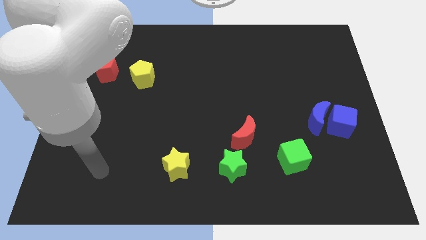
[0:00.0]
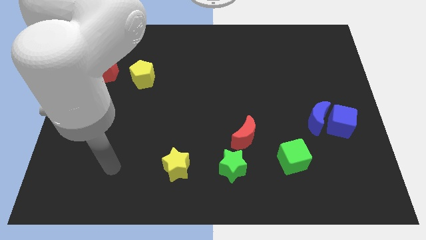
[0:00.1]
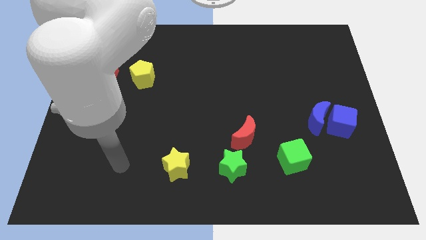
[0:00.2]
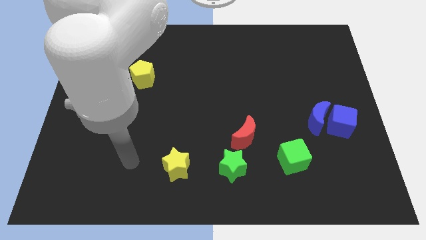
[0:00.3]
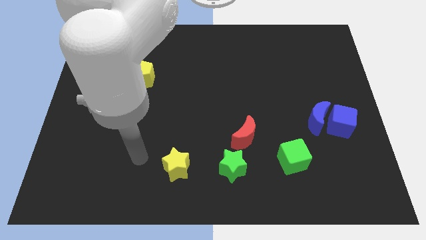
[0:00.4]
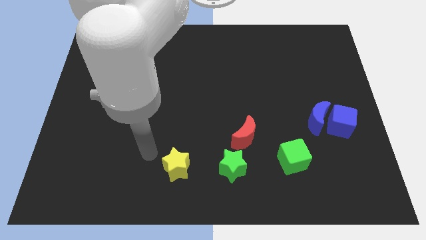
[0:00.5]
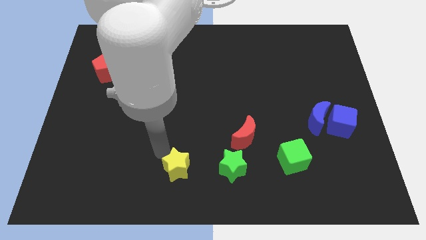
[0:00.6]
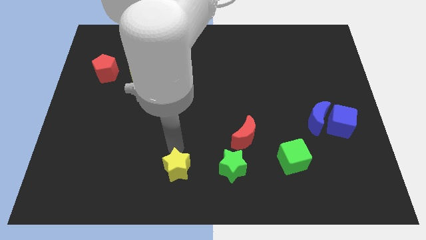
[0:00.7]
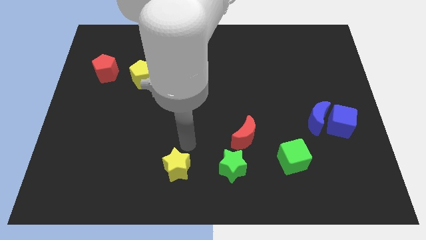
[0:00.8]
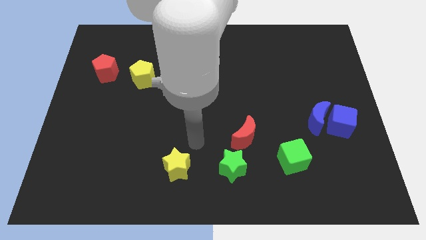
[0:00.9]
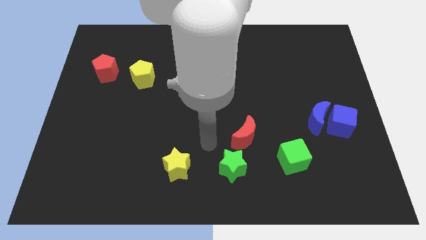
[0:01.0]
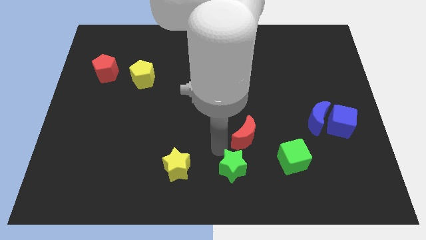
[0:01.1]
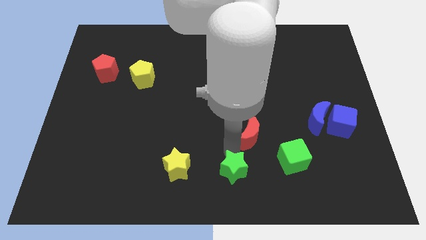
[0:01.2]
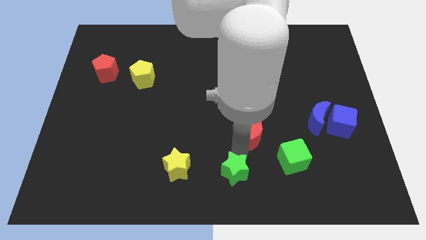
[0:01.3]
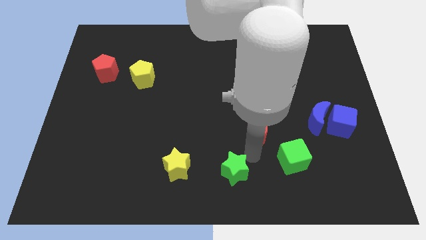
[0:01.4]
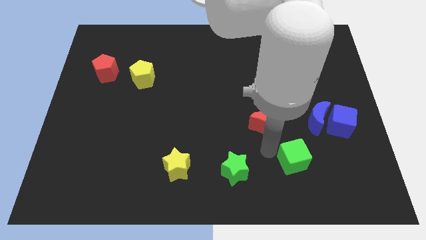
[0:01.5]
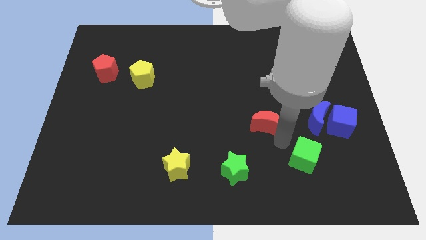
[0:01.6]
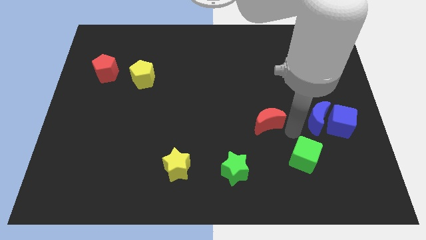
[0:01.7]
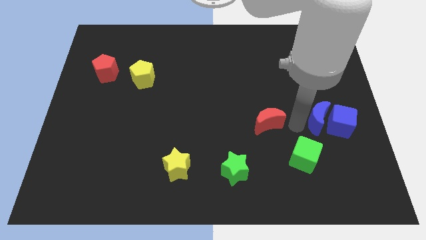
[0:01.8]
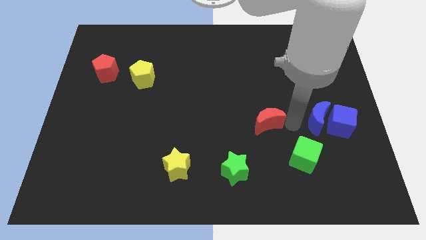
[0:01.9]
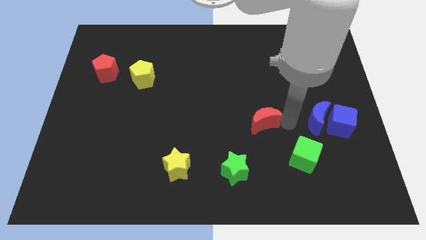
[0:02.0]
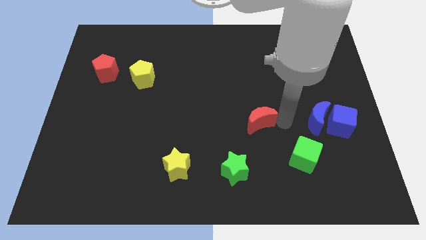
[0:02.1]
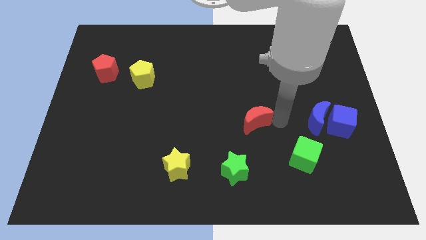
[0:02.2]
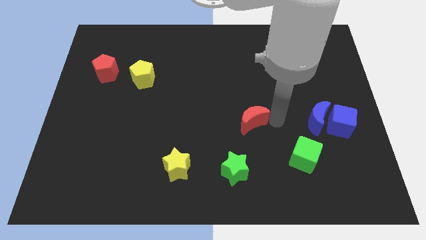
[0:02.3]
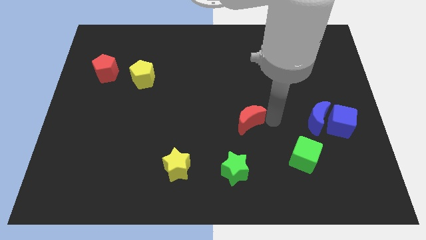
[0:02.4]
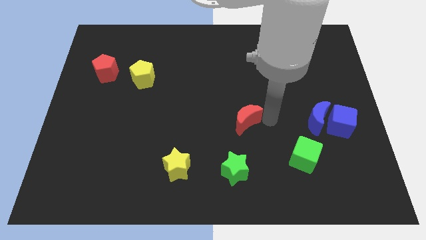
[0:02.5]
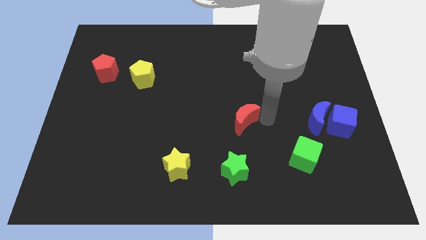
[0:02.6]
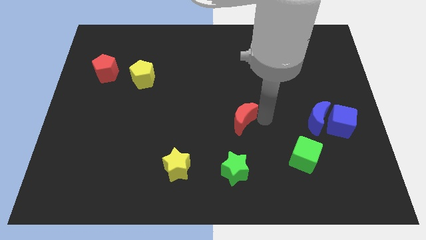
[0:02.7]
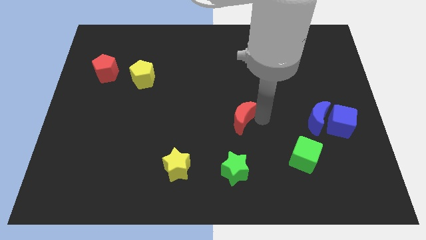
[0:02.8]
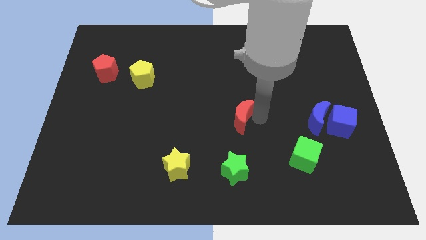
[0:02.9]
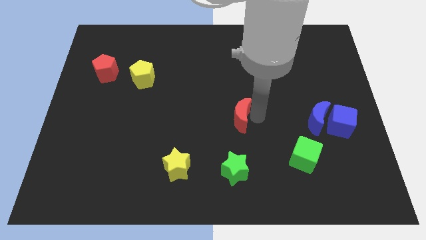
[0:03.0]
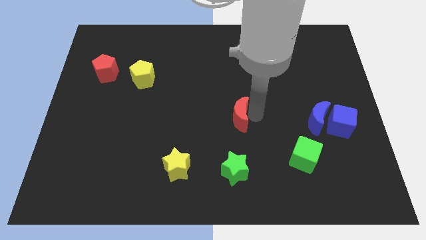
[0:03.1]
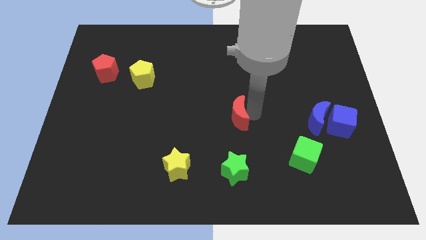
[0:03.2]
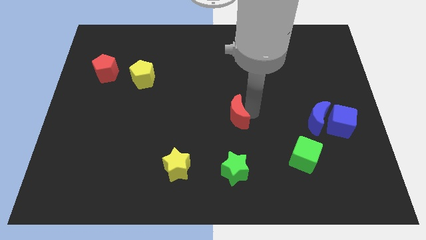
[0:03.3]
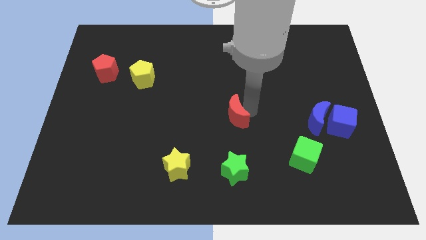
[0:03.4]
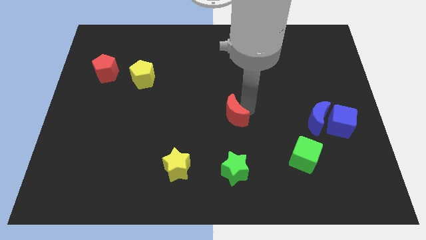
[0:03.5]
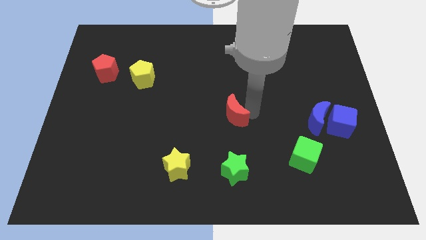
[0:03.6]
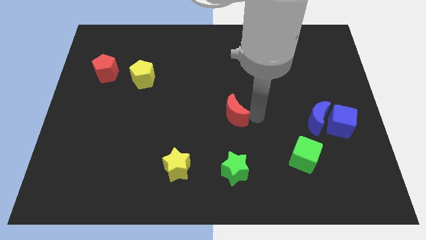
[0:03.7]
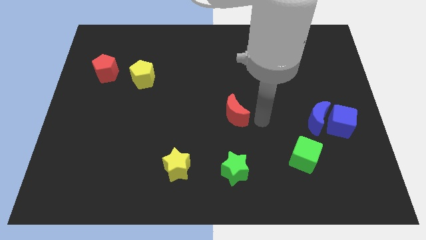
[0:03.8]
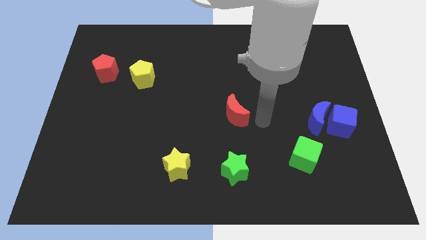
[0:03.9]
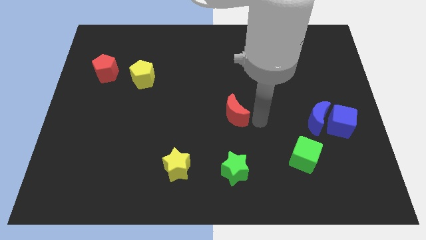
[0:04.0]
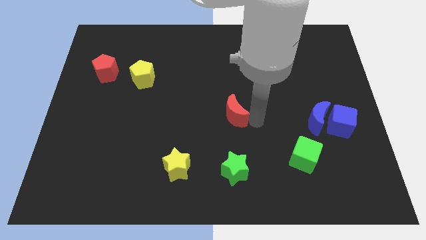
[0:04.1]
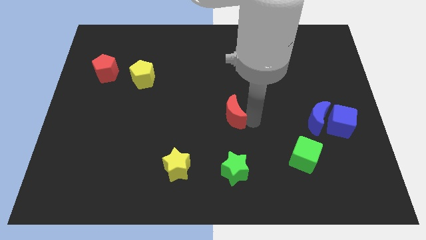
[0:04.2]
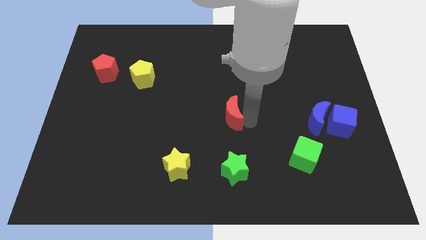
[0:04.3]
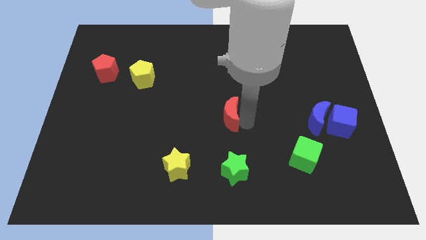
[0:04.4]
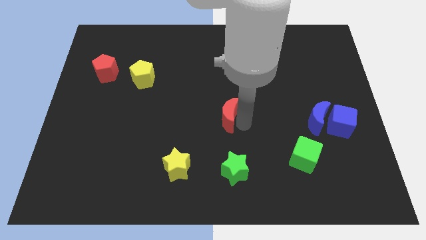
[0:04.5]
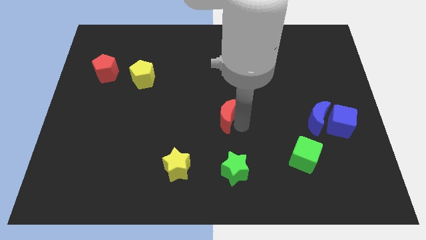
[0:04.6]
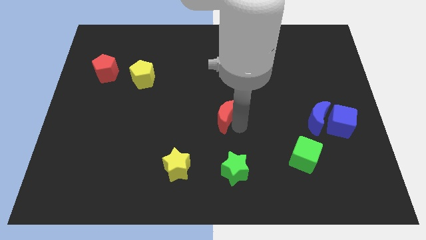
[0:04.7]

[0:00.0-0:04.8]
slide the red moon somewhat diagonally up and left

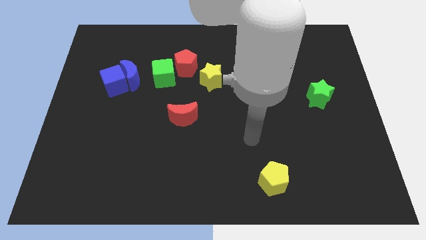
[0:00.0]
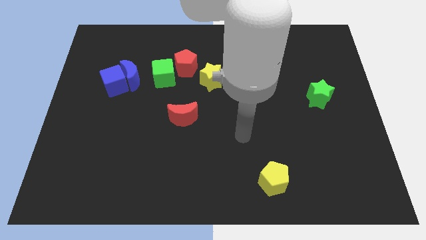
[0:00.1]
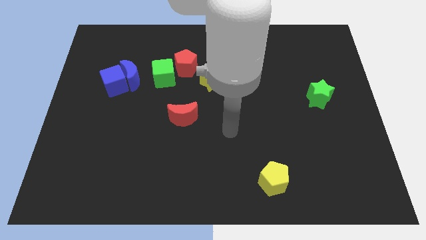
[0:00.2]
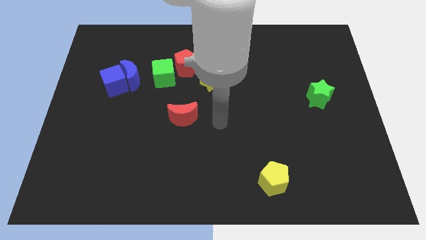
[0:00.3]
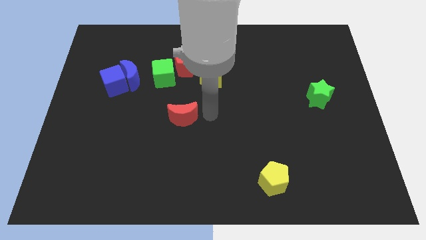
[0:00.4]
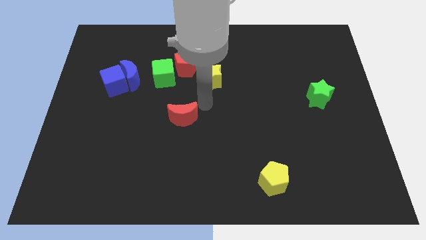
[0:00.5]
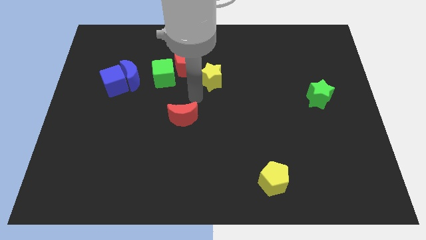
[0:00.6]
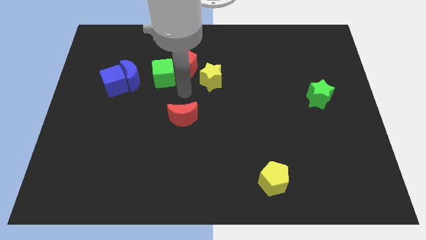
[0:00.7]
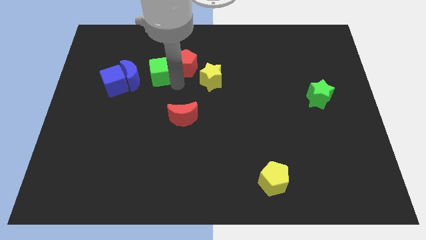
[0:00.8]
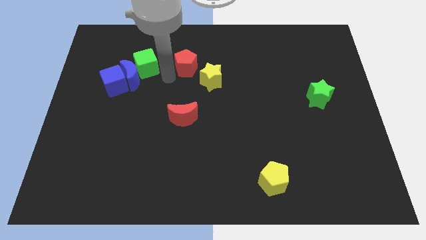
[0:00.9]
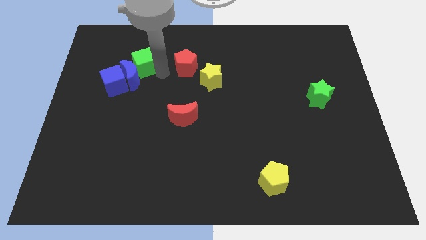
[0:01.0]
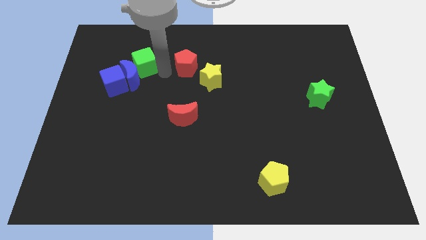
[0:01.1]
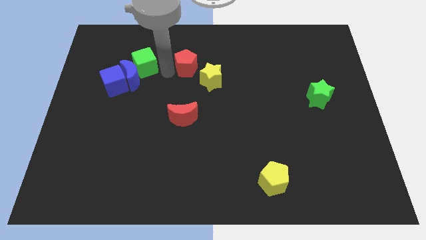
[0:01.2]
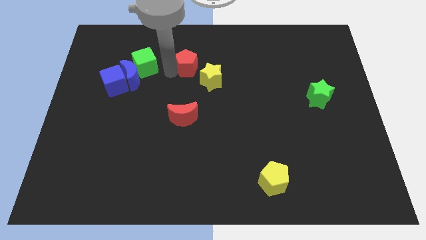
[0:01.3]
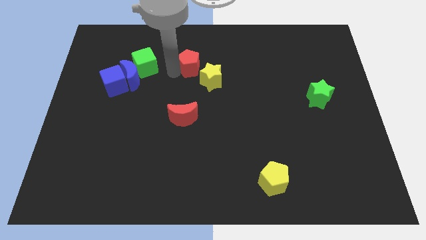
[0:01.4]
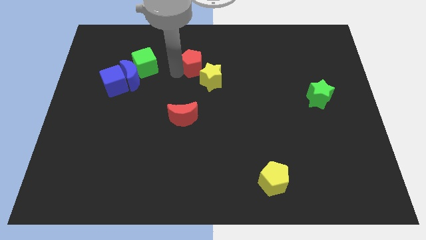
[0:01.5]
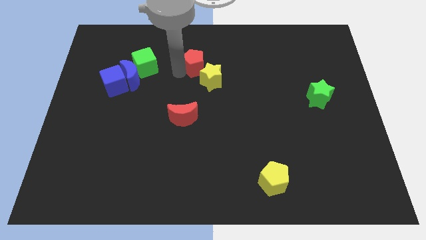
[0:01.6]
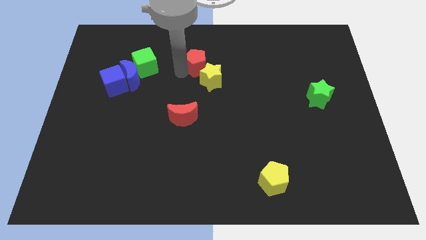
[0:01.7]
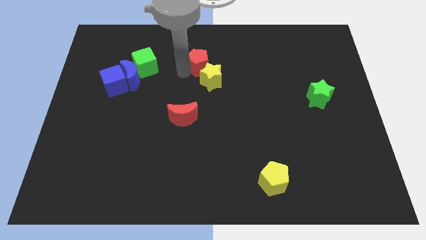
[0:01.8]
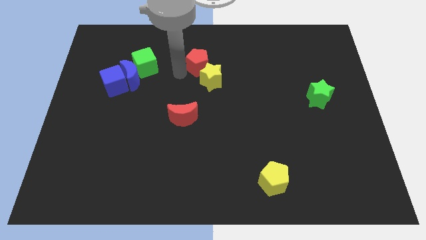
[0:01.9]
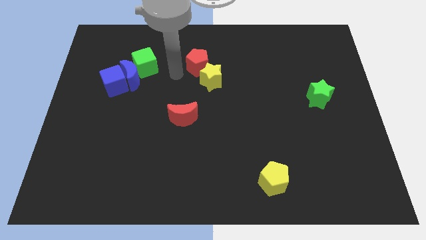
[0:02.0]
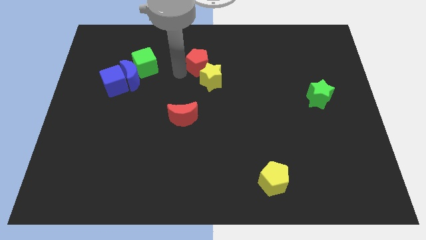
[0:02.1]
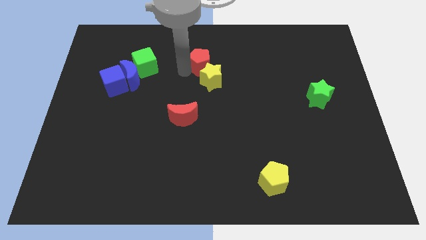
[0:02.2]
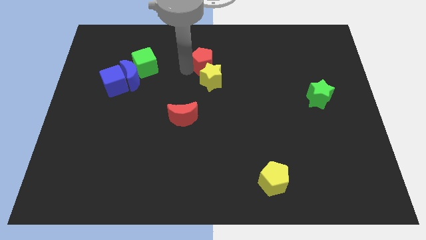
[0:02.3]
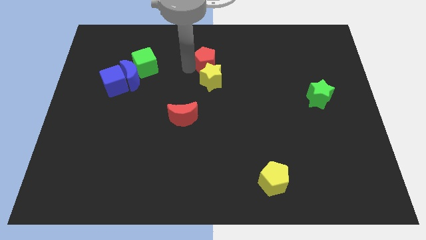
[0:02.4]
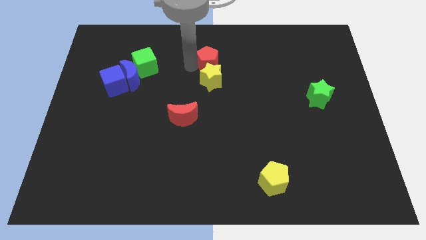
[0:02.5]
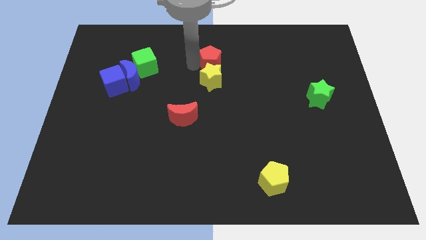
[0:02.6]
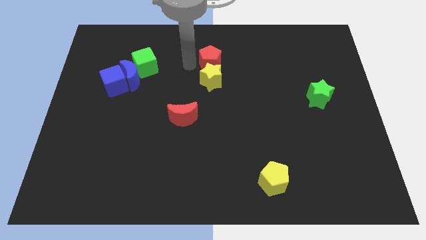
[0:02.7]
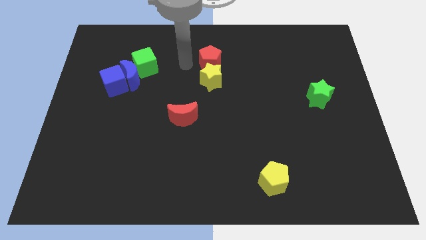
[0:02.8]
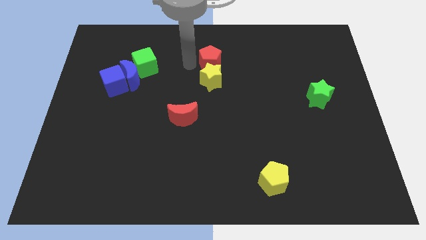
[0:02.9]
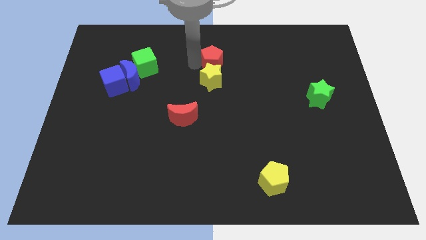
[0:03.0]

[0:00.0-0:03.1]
slide the red pentagon a little bit to the right

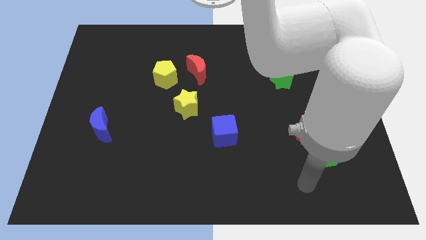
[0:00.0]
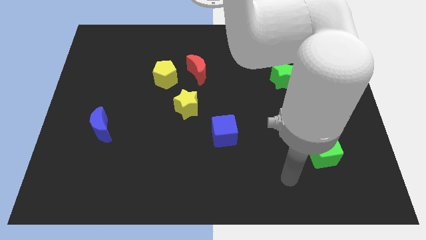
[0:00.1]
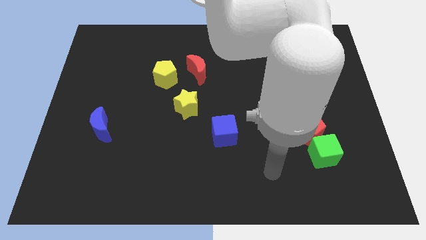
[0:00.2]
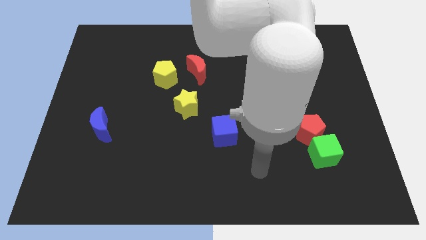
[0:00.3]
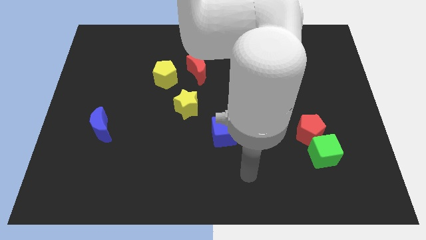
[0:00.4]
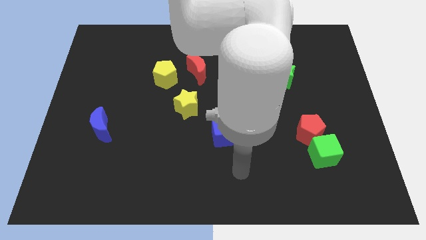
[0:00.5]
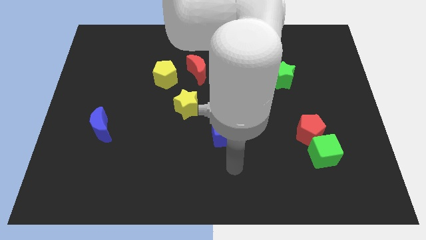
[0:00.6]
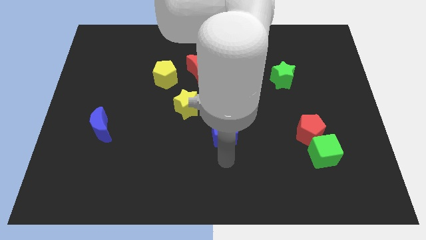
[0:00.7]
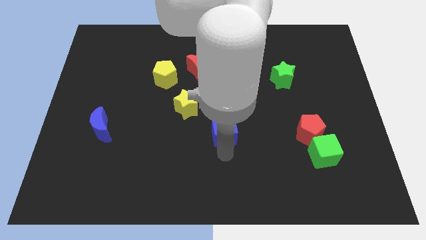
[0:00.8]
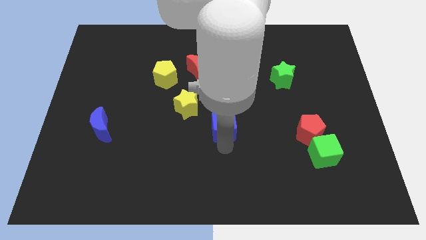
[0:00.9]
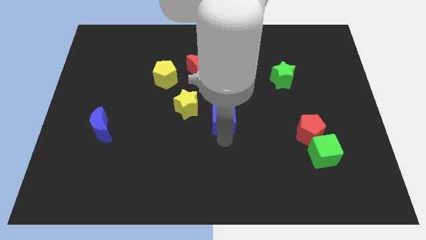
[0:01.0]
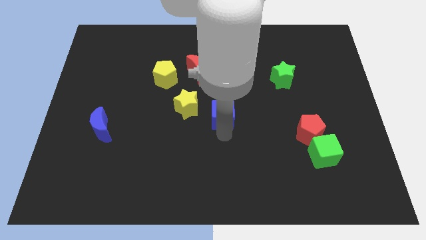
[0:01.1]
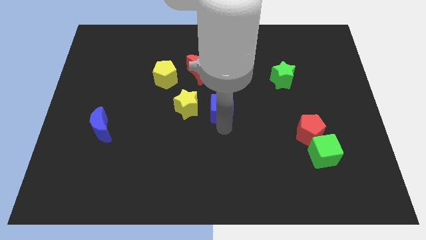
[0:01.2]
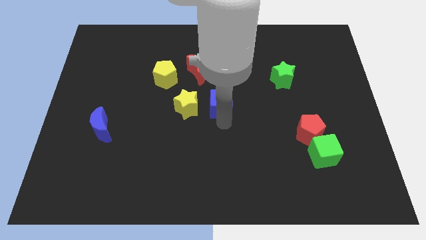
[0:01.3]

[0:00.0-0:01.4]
slide the blue cube up slightly
